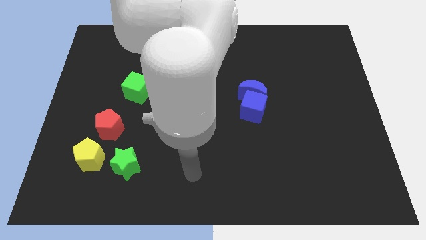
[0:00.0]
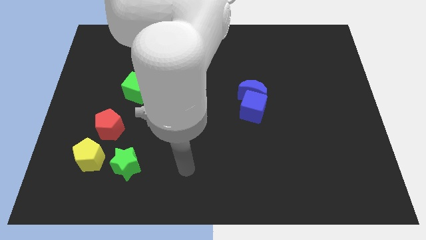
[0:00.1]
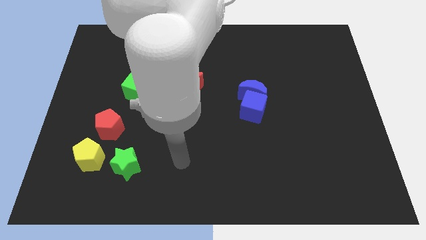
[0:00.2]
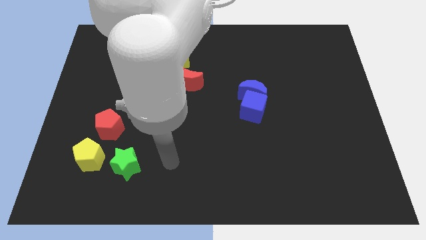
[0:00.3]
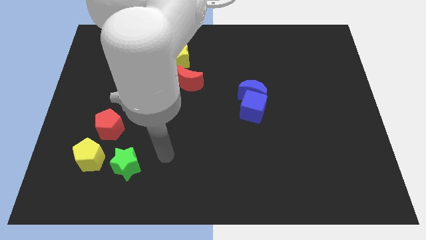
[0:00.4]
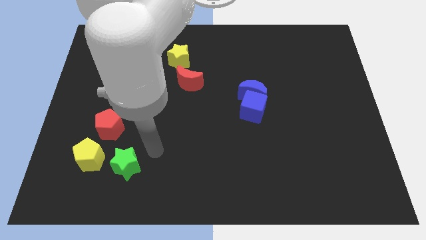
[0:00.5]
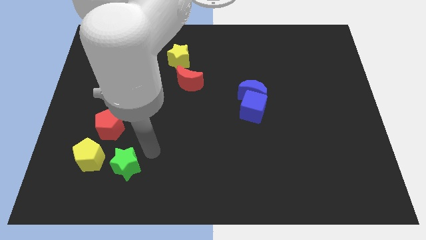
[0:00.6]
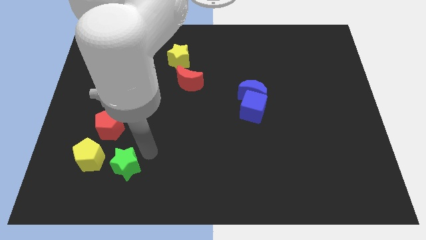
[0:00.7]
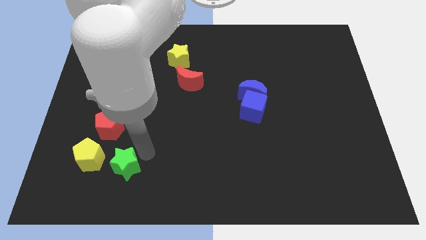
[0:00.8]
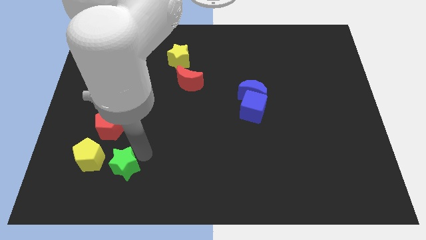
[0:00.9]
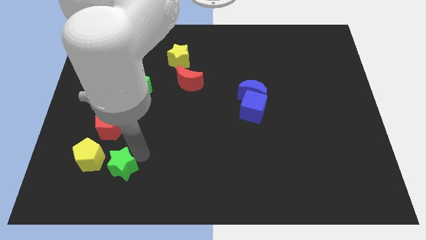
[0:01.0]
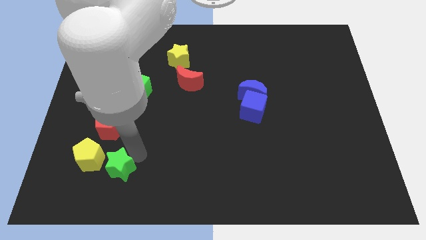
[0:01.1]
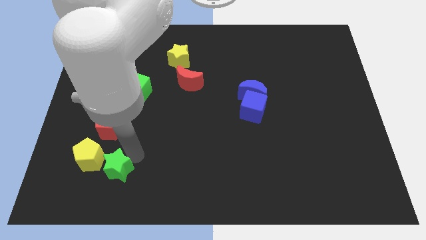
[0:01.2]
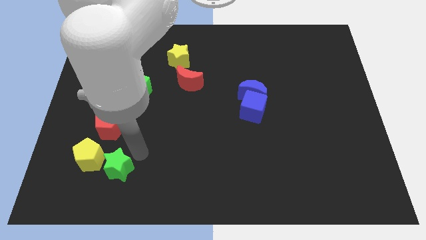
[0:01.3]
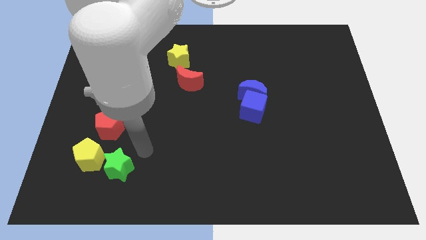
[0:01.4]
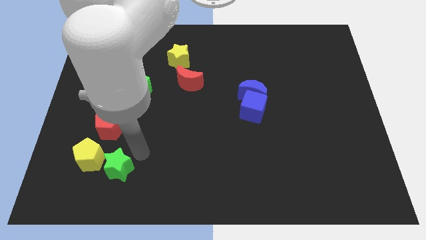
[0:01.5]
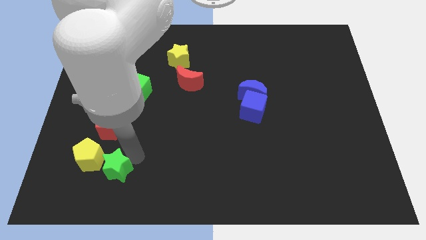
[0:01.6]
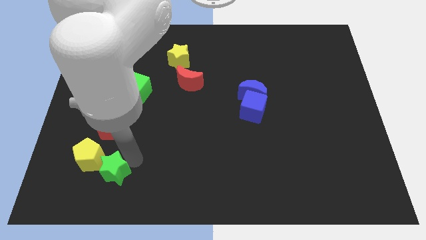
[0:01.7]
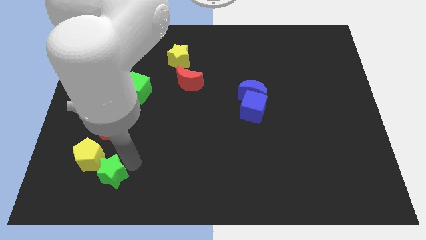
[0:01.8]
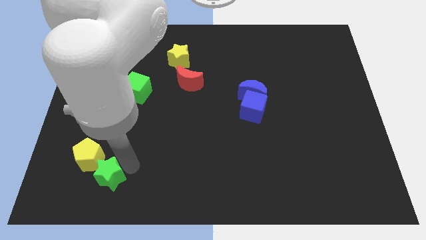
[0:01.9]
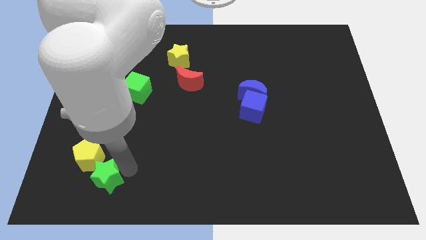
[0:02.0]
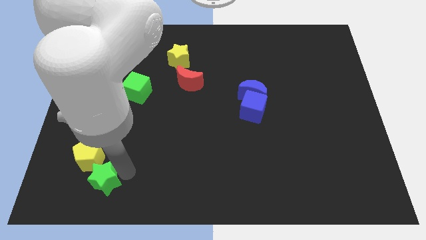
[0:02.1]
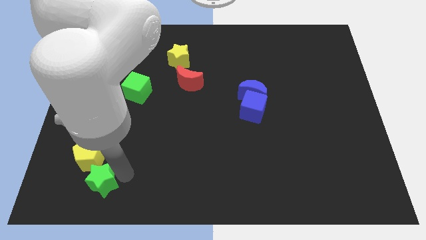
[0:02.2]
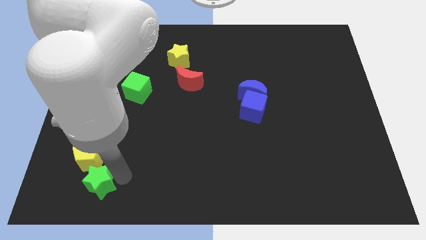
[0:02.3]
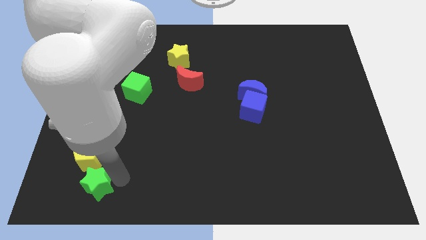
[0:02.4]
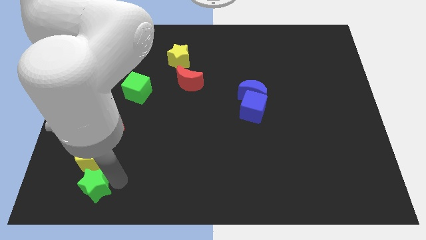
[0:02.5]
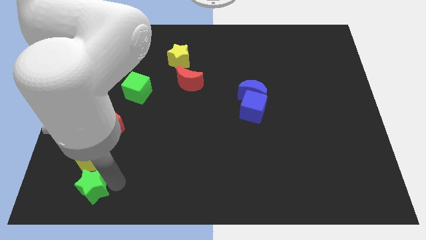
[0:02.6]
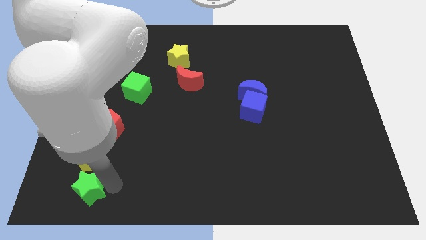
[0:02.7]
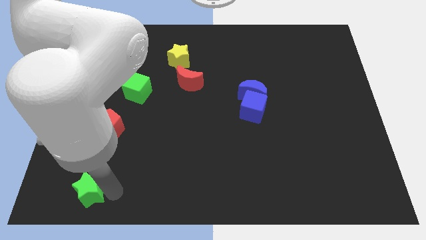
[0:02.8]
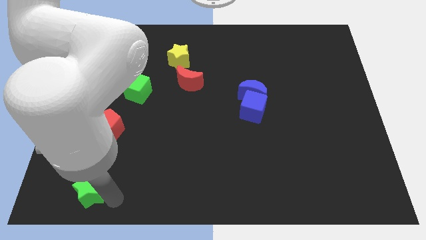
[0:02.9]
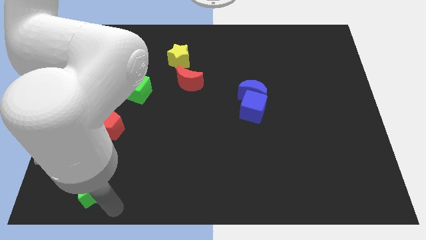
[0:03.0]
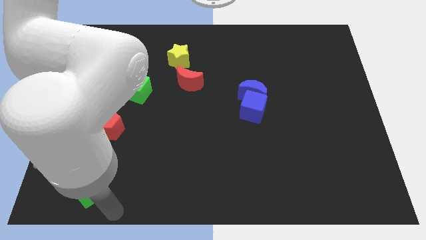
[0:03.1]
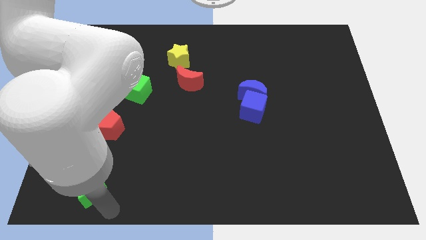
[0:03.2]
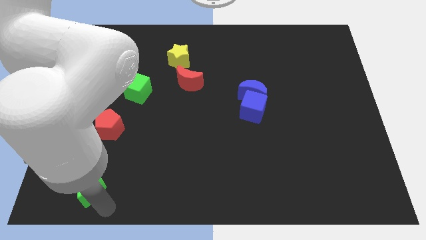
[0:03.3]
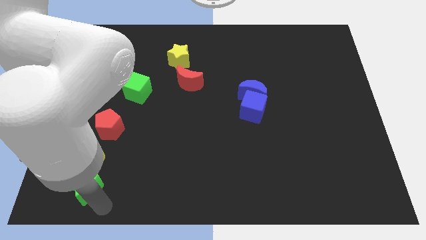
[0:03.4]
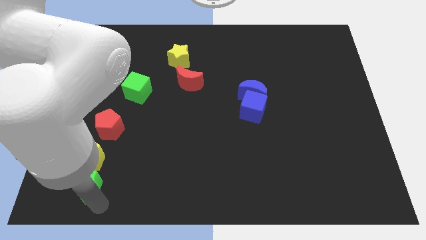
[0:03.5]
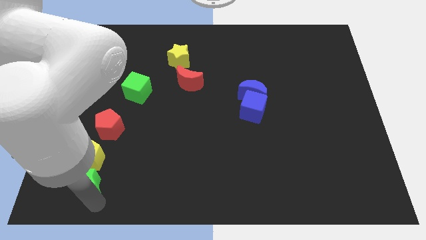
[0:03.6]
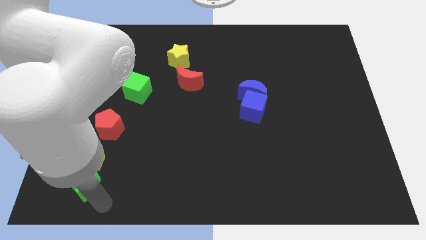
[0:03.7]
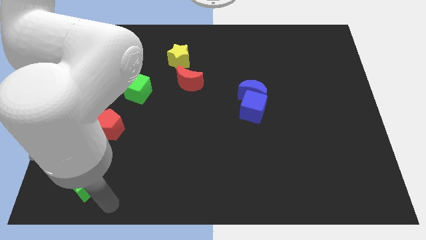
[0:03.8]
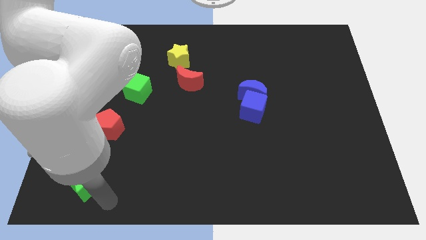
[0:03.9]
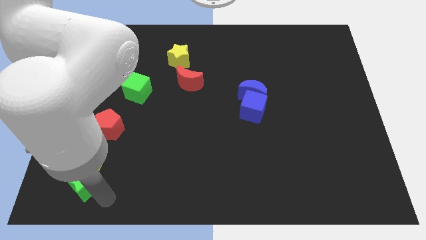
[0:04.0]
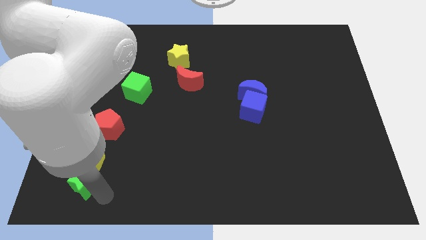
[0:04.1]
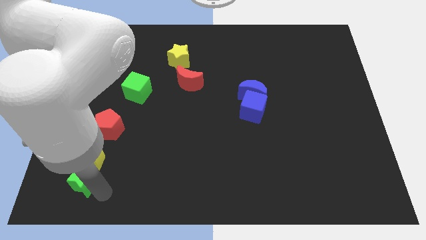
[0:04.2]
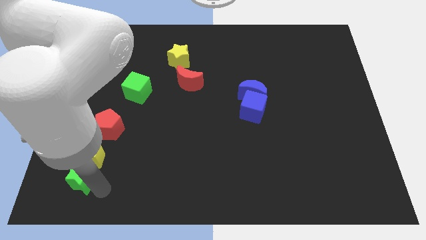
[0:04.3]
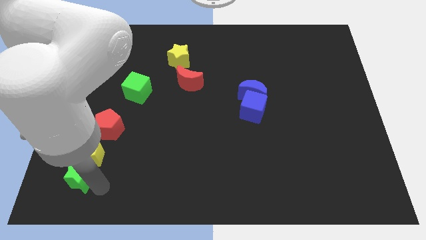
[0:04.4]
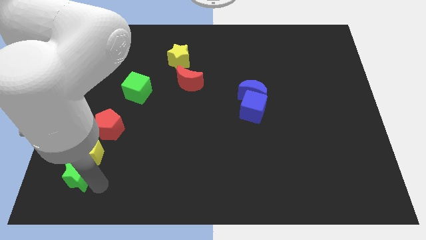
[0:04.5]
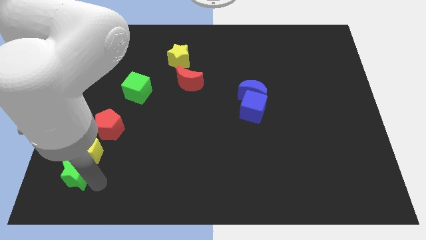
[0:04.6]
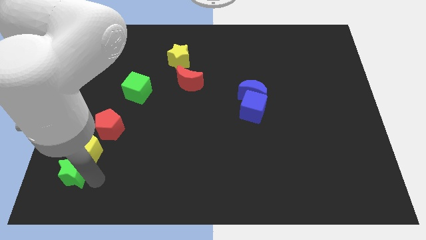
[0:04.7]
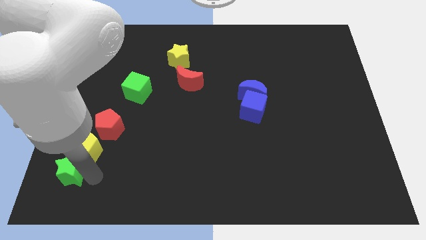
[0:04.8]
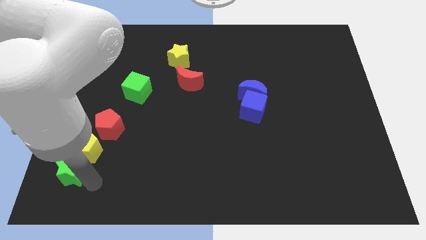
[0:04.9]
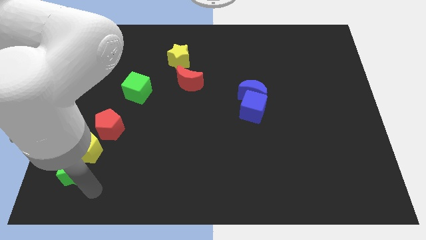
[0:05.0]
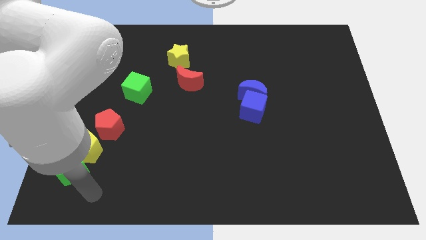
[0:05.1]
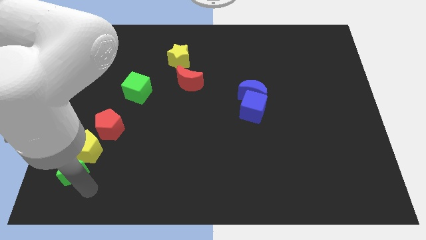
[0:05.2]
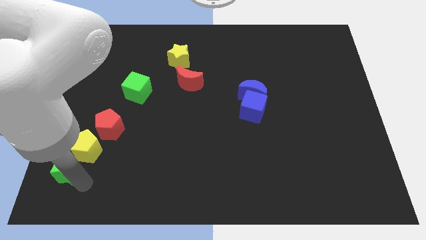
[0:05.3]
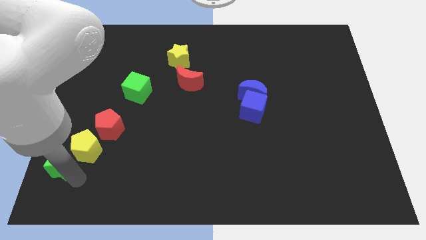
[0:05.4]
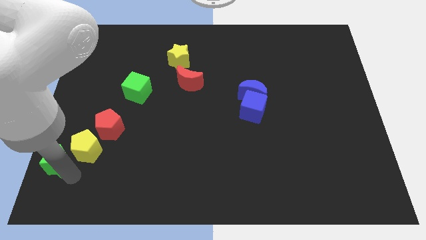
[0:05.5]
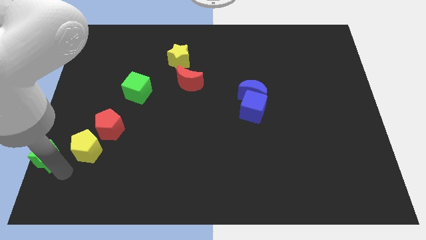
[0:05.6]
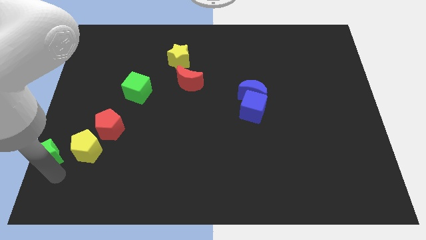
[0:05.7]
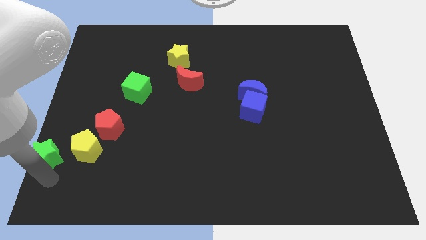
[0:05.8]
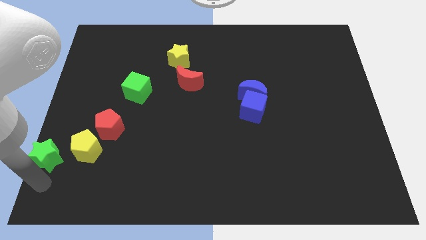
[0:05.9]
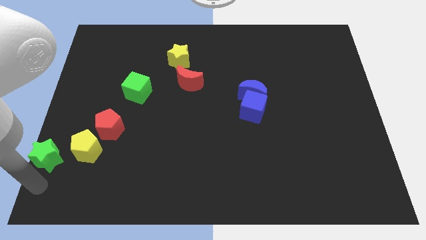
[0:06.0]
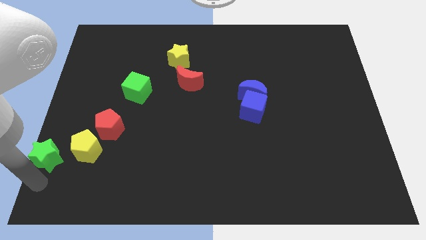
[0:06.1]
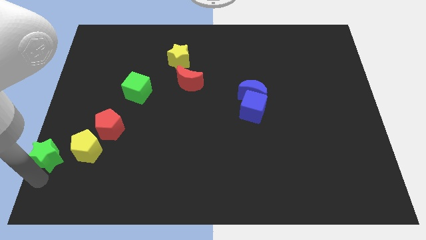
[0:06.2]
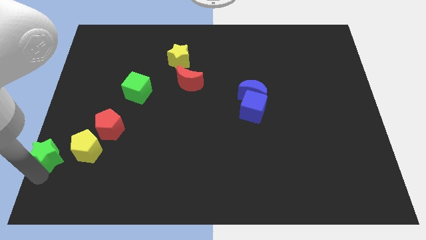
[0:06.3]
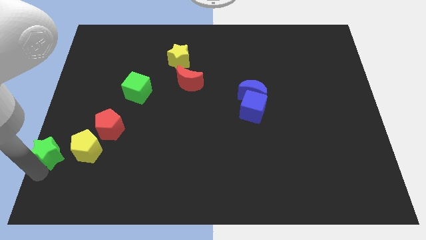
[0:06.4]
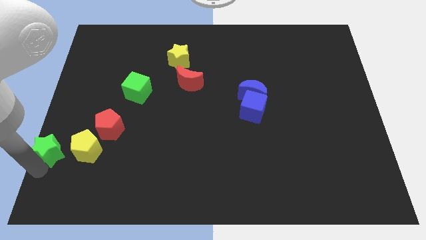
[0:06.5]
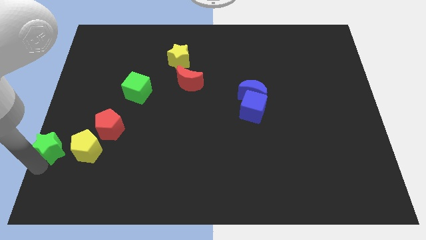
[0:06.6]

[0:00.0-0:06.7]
push the green star to the center left
